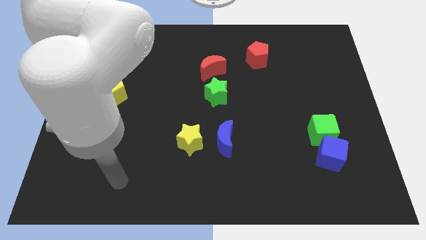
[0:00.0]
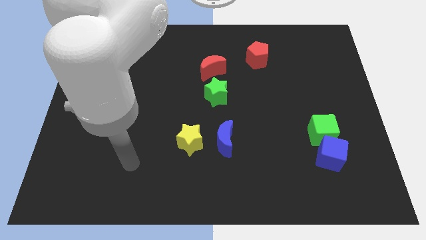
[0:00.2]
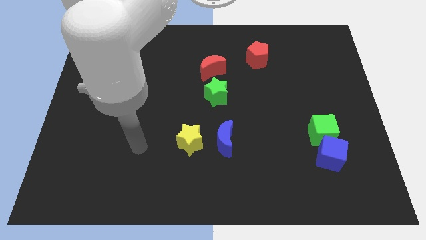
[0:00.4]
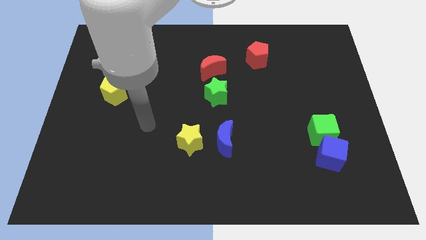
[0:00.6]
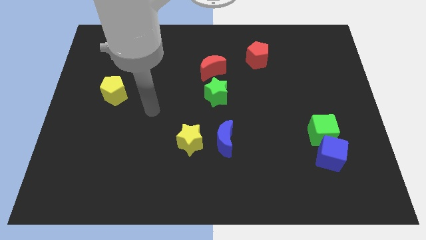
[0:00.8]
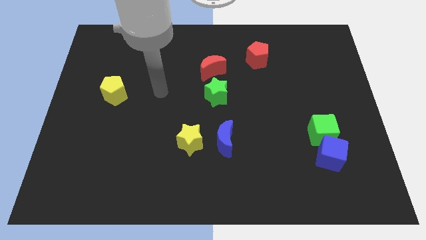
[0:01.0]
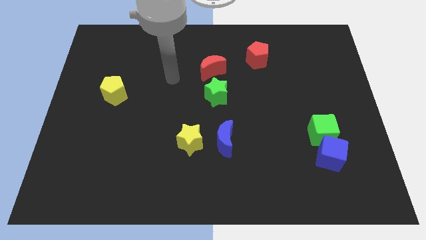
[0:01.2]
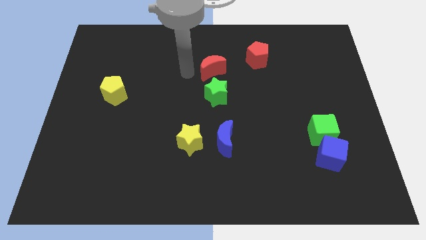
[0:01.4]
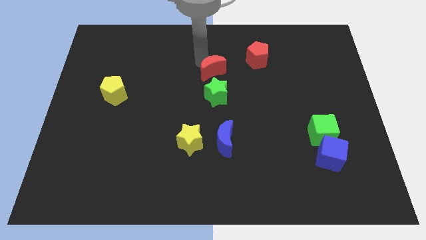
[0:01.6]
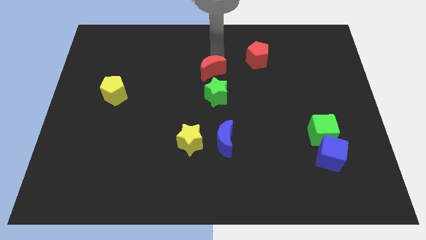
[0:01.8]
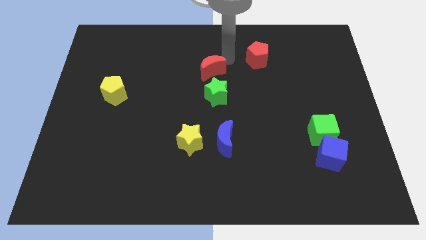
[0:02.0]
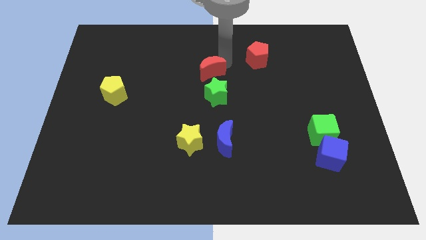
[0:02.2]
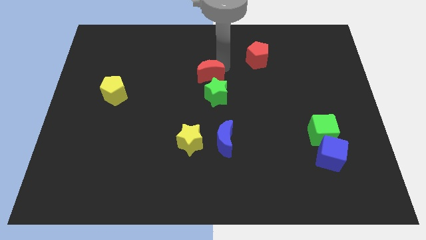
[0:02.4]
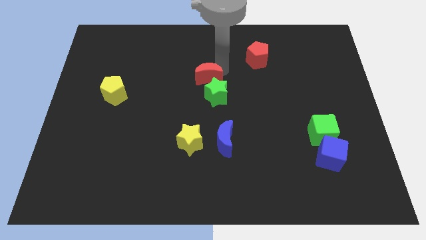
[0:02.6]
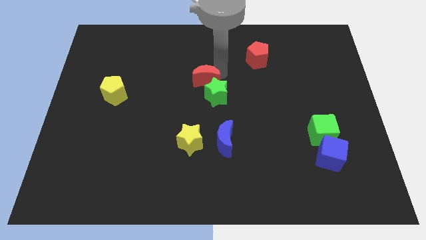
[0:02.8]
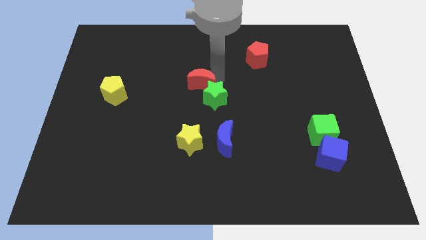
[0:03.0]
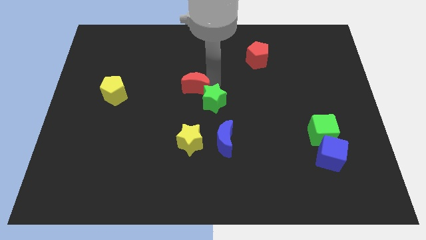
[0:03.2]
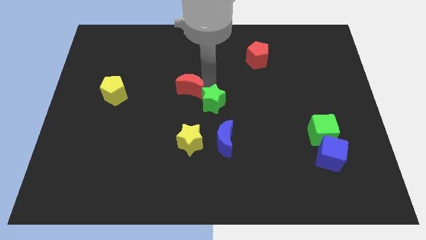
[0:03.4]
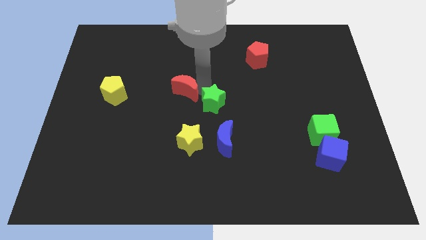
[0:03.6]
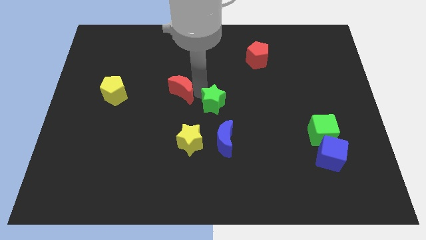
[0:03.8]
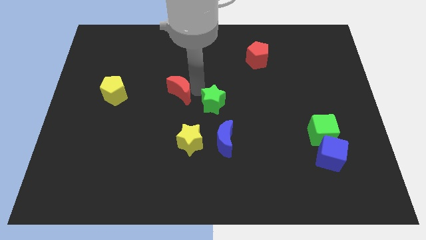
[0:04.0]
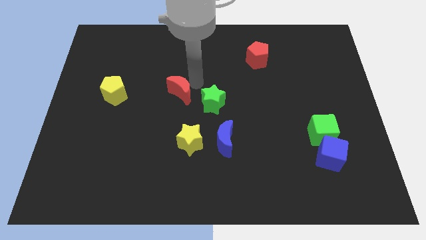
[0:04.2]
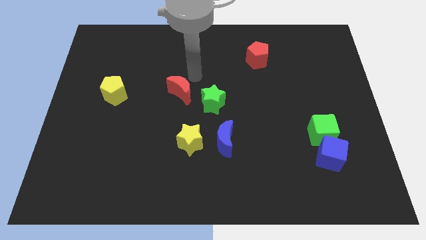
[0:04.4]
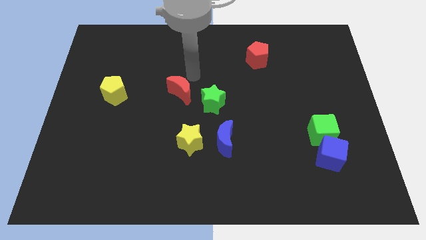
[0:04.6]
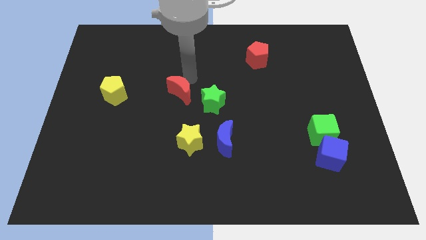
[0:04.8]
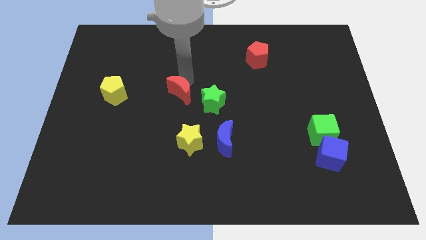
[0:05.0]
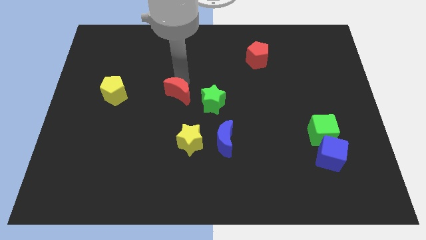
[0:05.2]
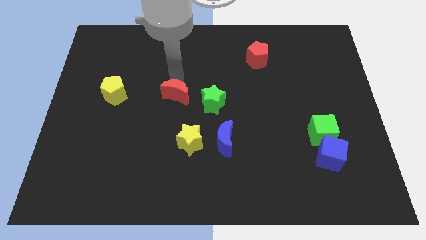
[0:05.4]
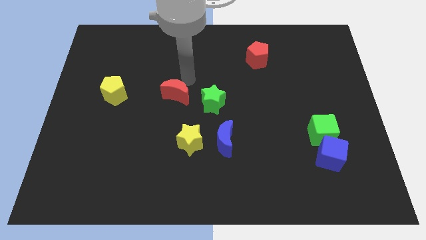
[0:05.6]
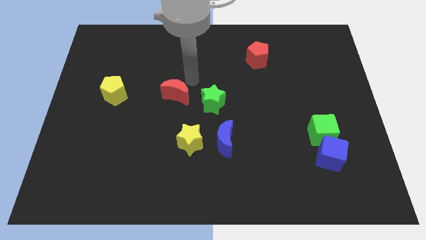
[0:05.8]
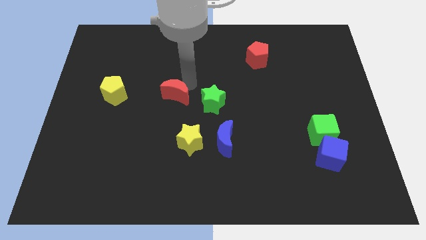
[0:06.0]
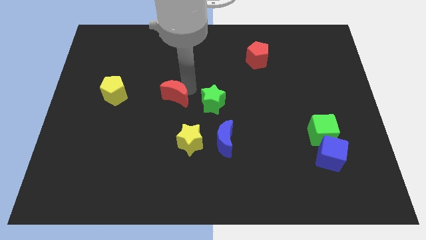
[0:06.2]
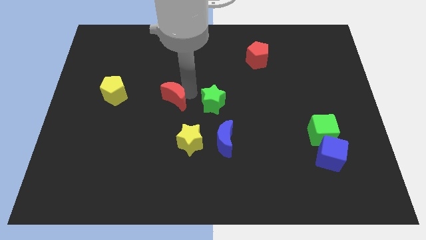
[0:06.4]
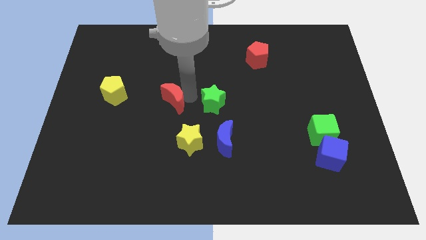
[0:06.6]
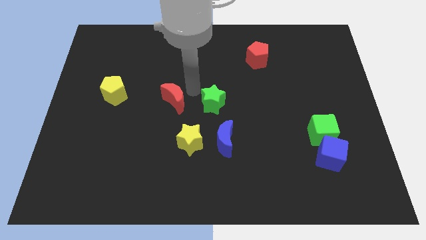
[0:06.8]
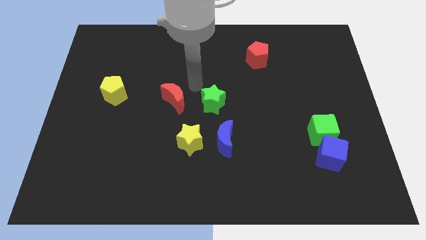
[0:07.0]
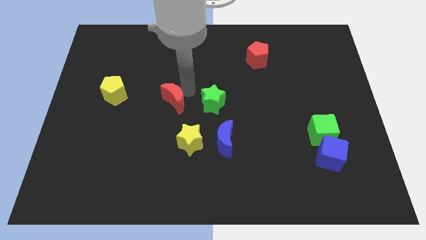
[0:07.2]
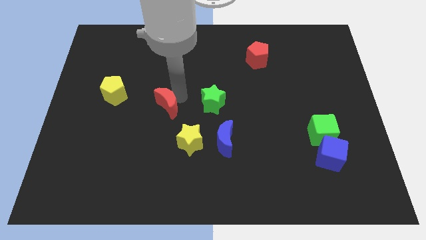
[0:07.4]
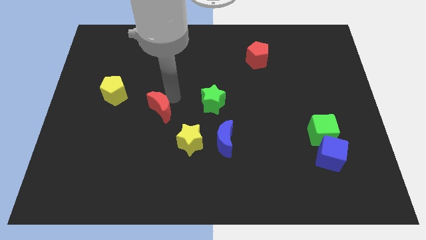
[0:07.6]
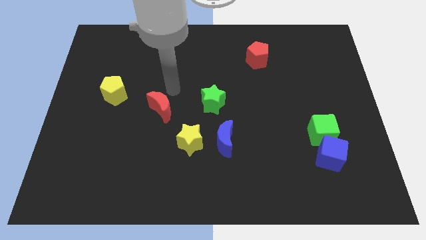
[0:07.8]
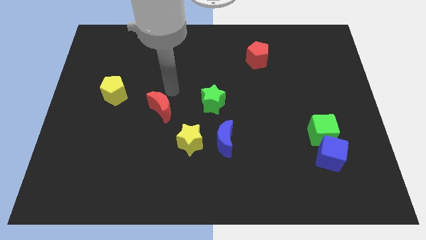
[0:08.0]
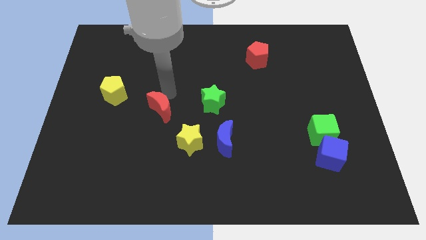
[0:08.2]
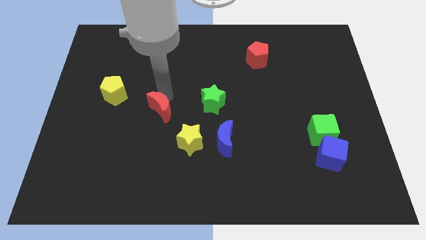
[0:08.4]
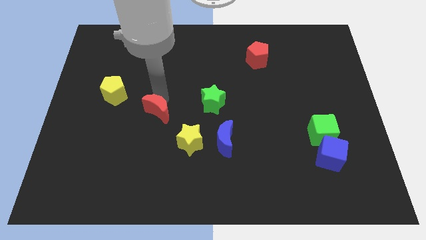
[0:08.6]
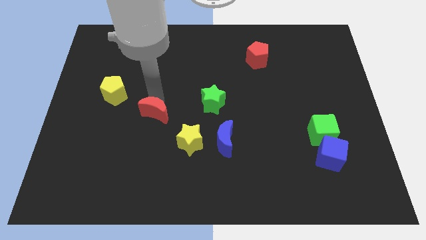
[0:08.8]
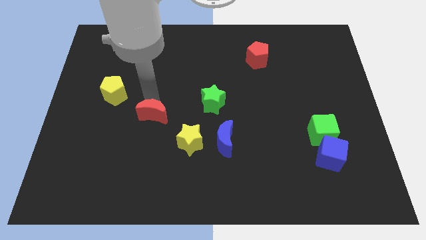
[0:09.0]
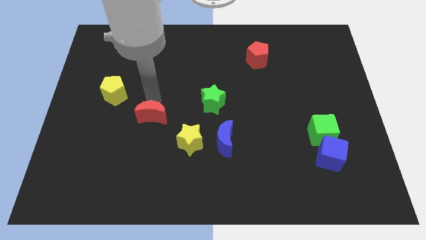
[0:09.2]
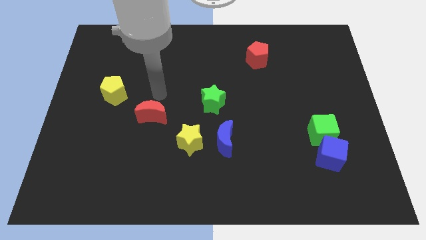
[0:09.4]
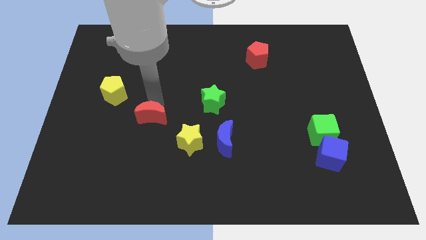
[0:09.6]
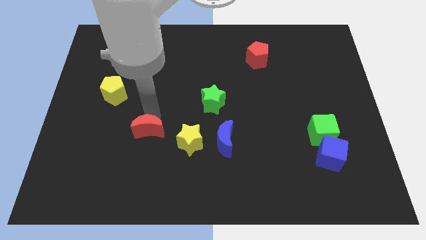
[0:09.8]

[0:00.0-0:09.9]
put the red moon left of the yellow star

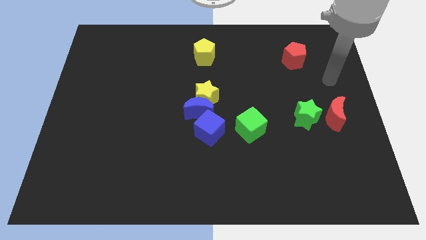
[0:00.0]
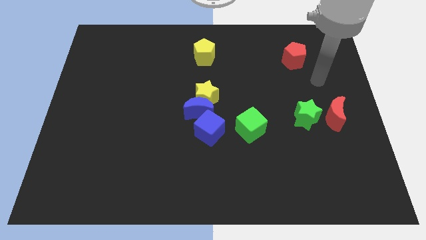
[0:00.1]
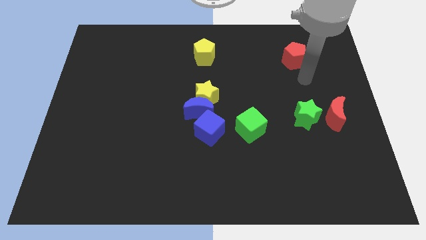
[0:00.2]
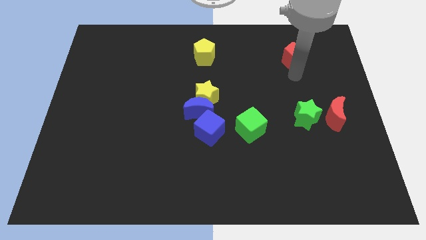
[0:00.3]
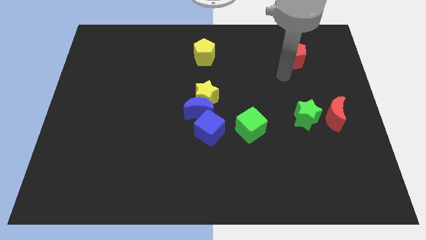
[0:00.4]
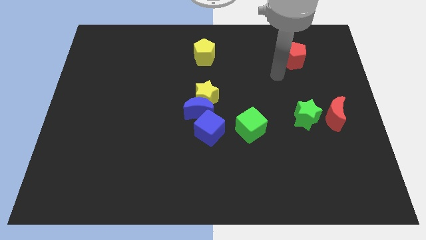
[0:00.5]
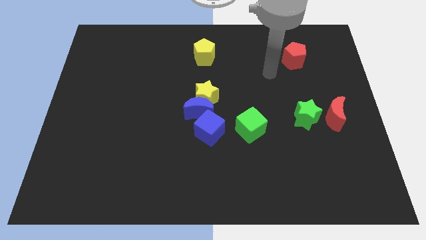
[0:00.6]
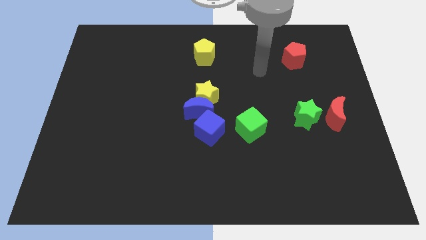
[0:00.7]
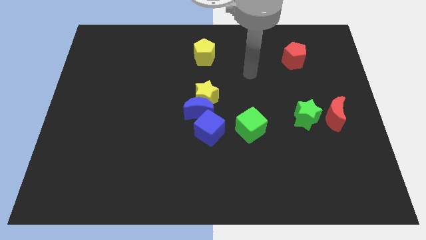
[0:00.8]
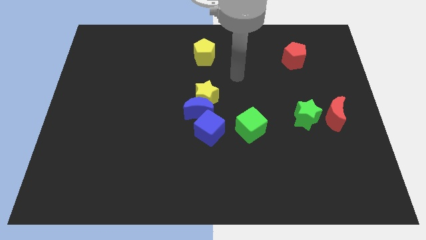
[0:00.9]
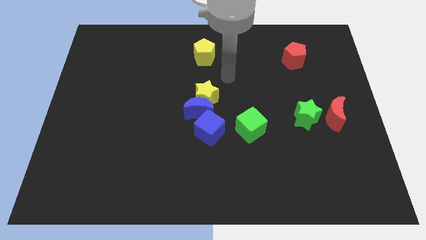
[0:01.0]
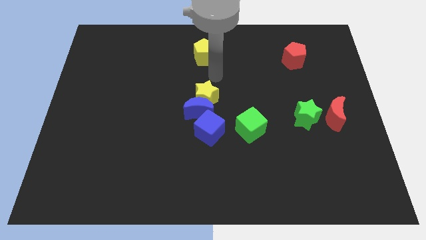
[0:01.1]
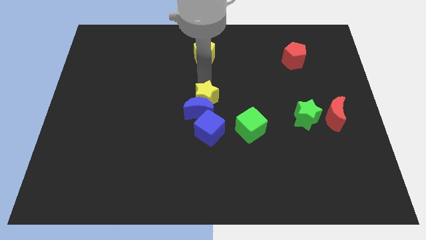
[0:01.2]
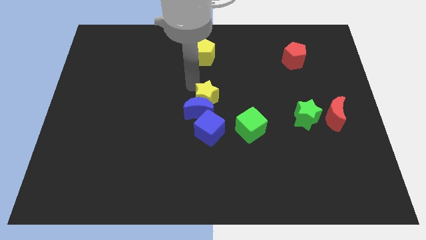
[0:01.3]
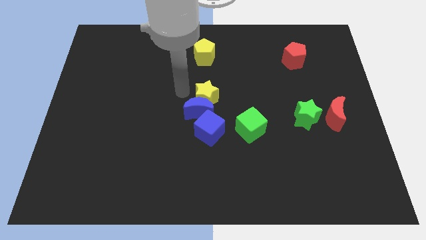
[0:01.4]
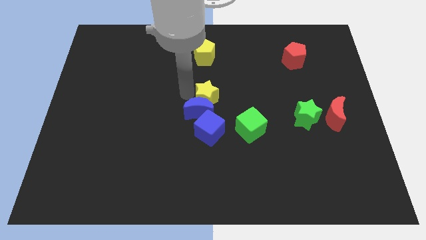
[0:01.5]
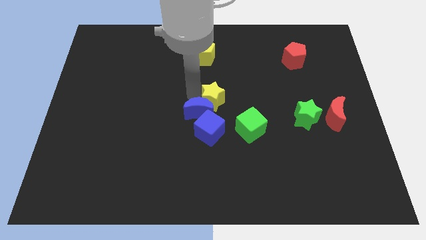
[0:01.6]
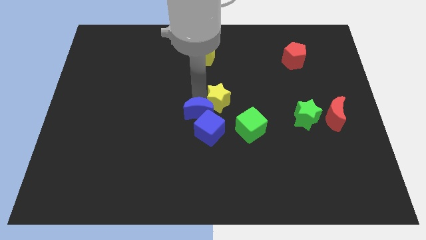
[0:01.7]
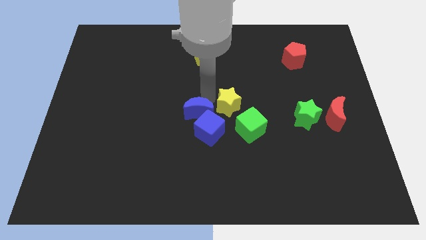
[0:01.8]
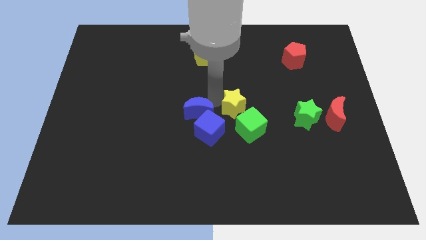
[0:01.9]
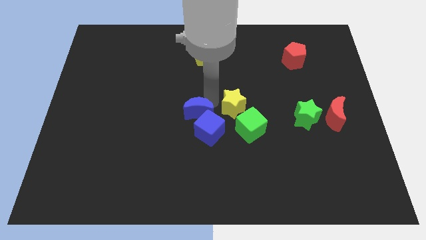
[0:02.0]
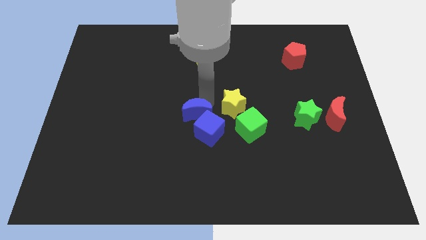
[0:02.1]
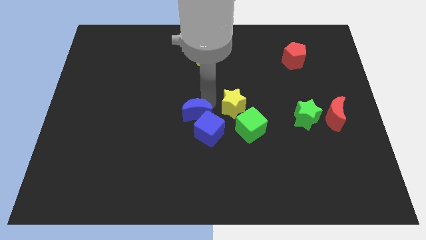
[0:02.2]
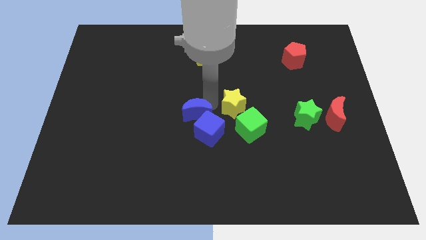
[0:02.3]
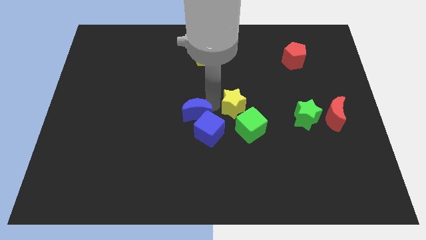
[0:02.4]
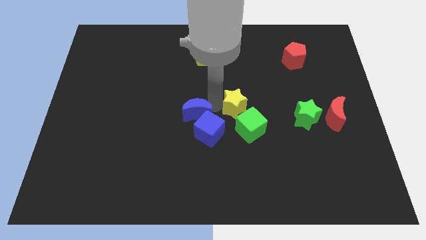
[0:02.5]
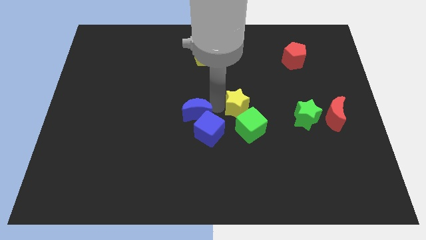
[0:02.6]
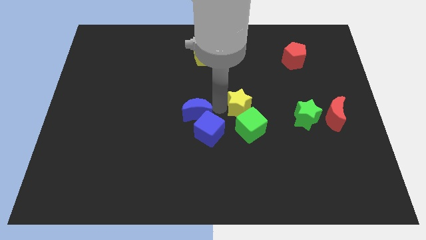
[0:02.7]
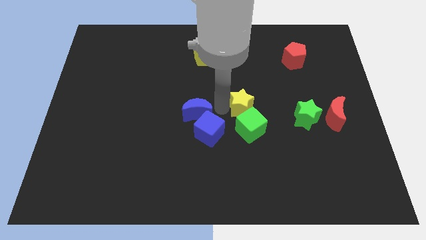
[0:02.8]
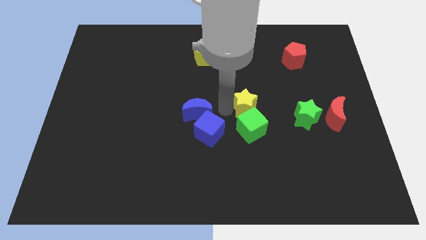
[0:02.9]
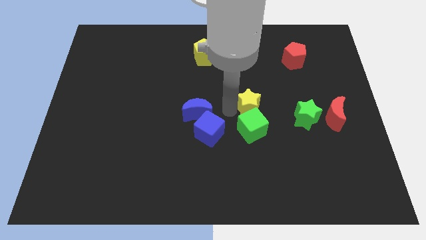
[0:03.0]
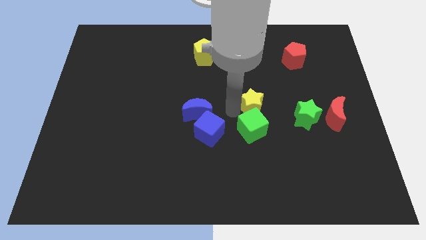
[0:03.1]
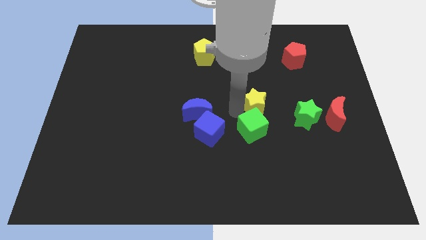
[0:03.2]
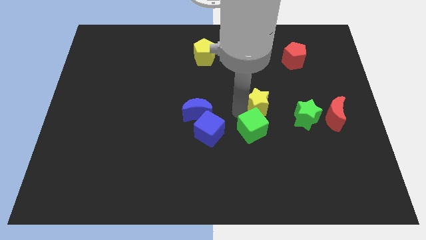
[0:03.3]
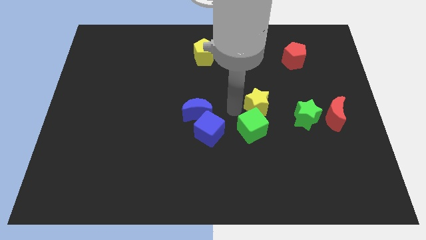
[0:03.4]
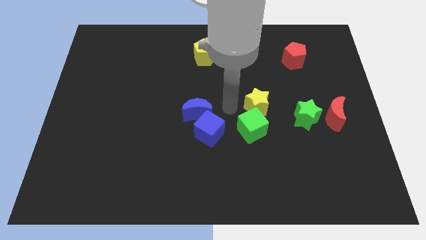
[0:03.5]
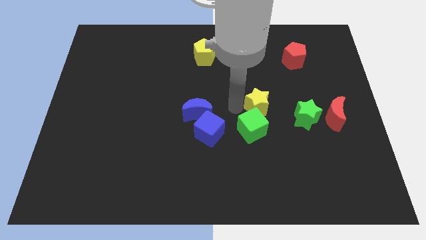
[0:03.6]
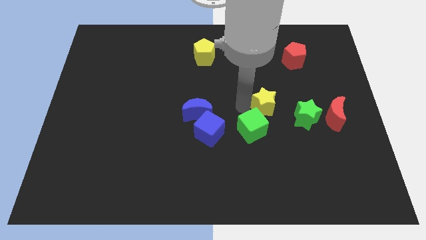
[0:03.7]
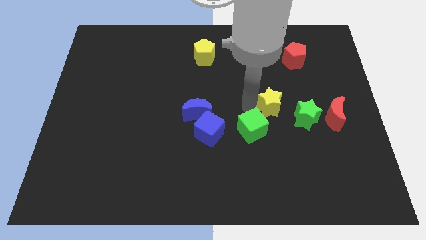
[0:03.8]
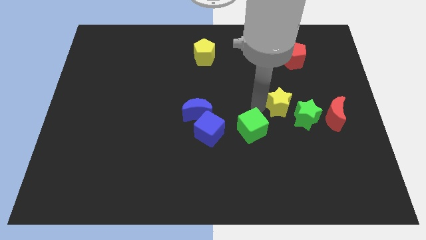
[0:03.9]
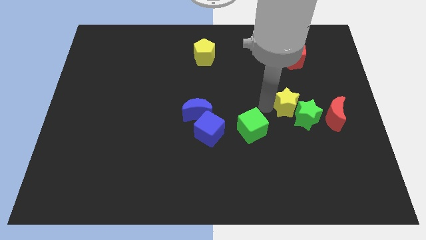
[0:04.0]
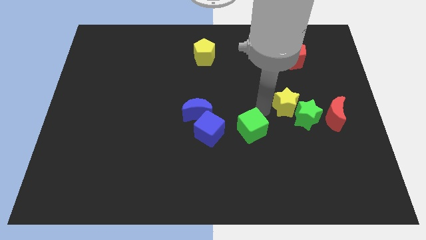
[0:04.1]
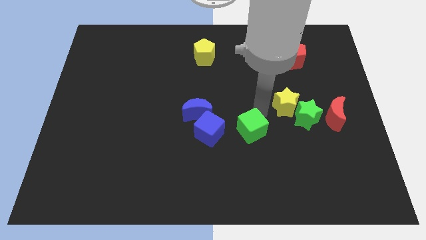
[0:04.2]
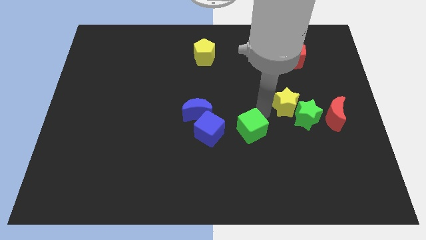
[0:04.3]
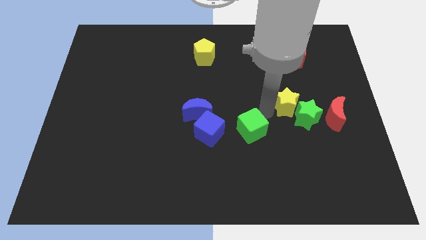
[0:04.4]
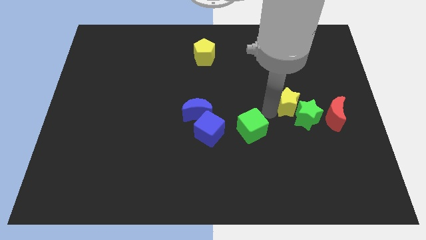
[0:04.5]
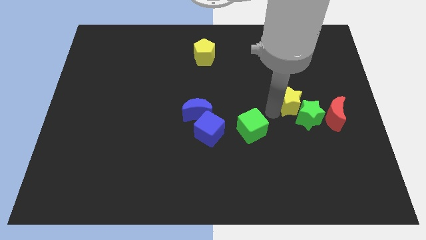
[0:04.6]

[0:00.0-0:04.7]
push the yellow star to the top left of the red moon
